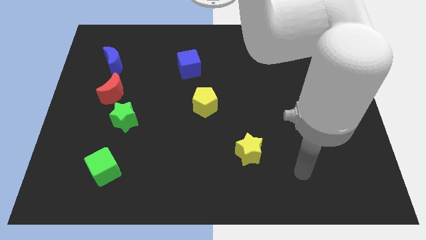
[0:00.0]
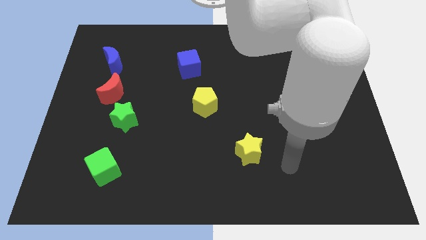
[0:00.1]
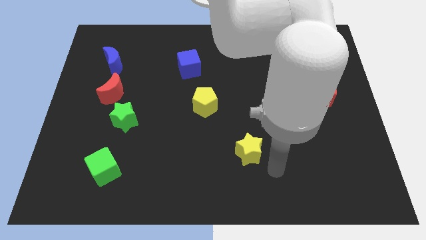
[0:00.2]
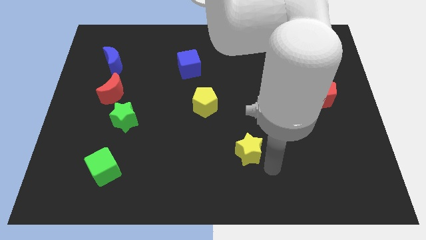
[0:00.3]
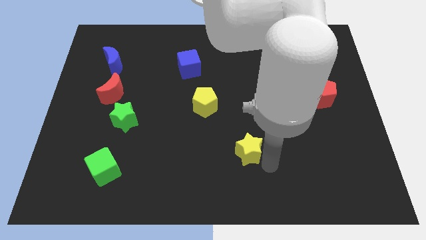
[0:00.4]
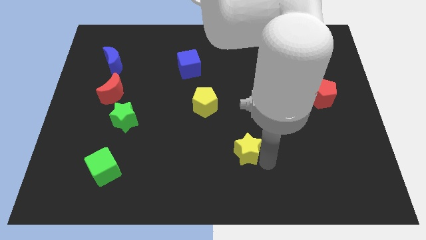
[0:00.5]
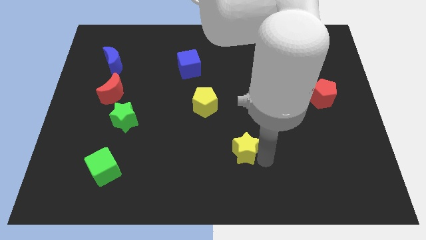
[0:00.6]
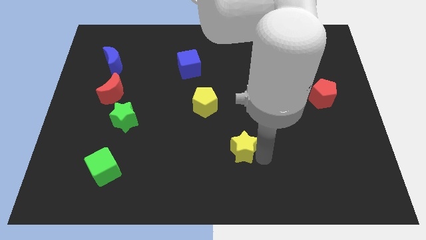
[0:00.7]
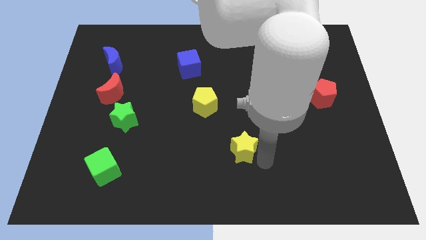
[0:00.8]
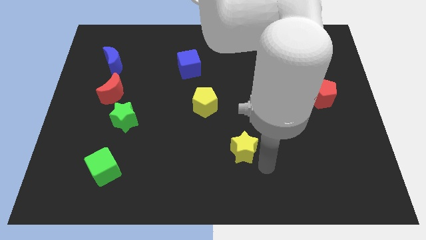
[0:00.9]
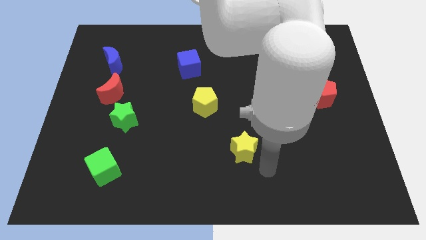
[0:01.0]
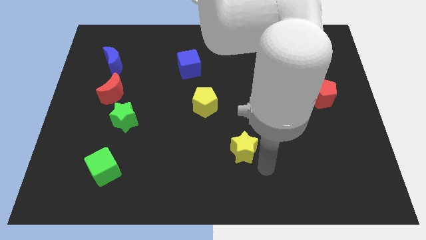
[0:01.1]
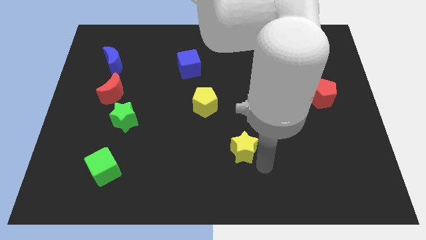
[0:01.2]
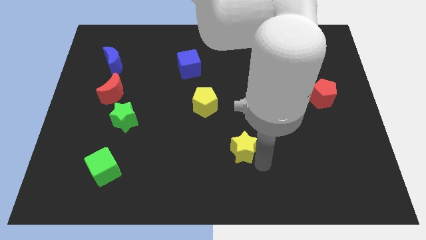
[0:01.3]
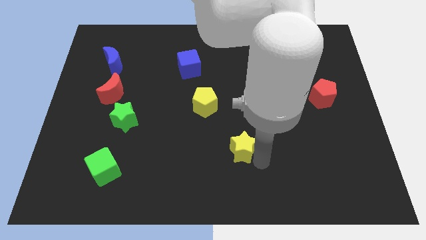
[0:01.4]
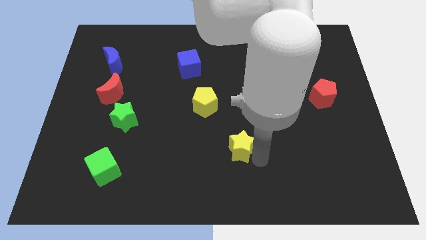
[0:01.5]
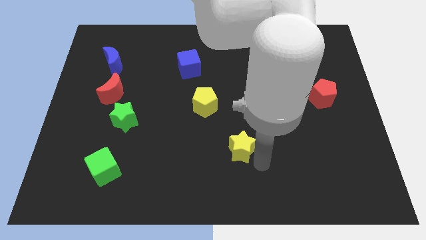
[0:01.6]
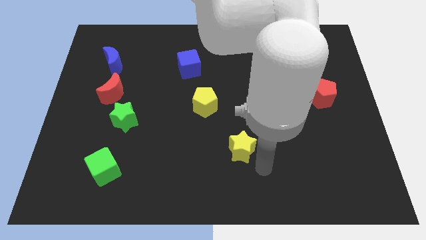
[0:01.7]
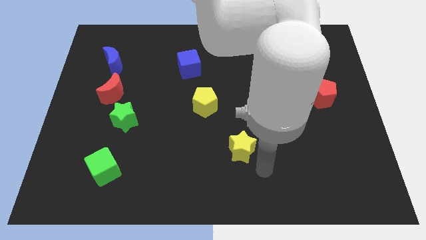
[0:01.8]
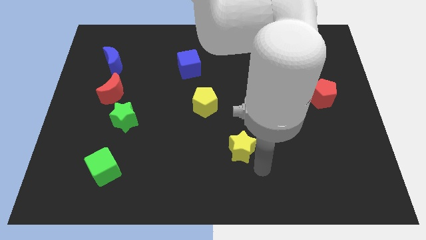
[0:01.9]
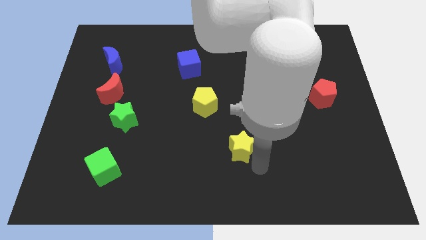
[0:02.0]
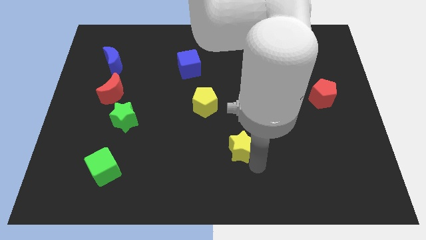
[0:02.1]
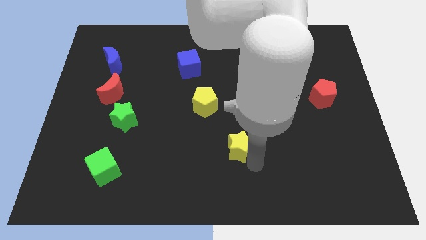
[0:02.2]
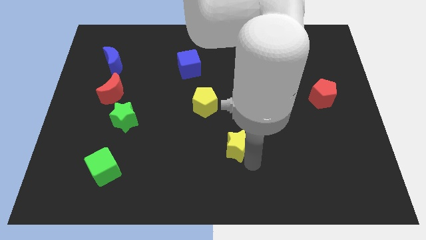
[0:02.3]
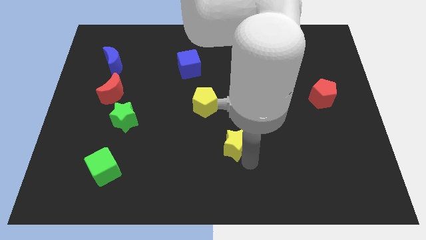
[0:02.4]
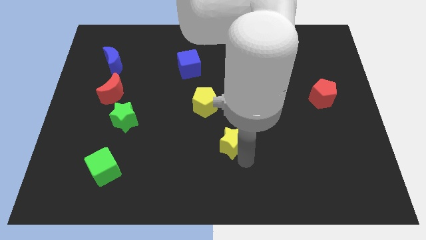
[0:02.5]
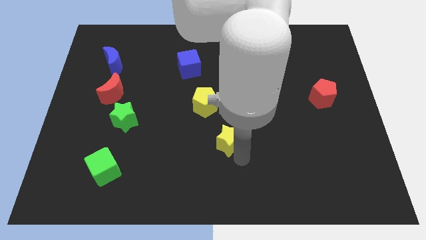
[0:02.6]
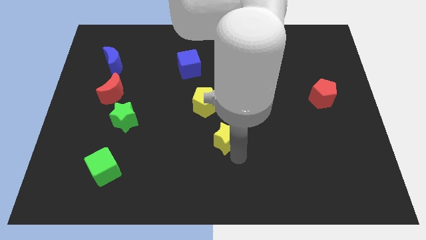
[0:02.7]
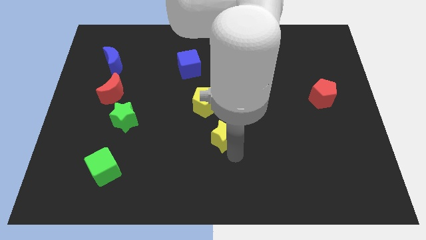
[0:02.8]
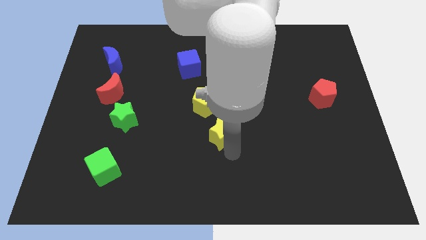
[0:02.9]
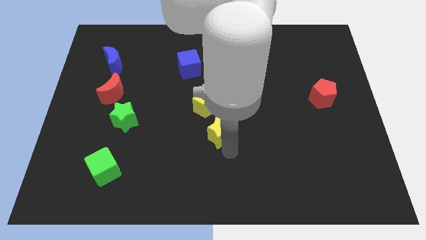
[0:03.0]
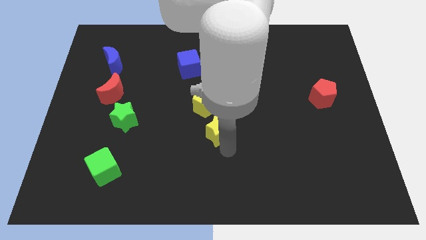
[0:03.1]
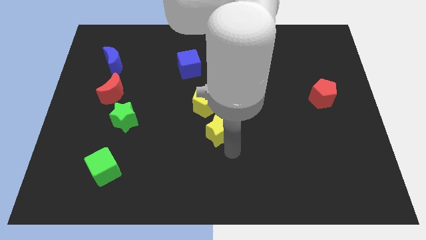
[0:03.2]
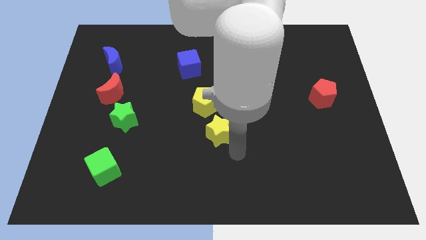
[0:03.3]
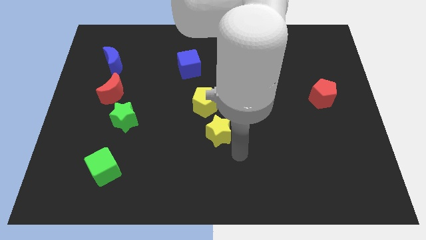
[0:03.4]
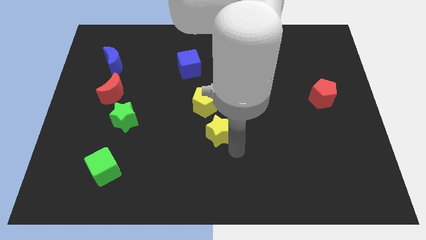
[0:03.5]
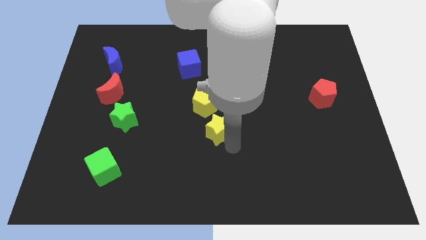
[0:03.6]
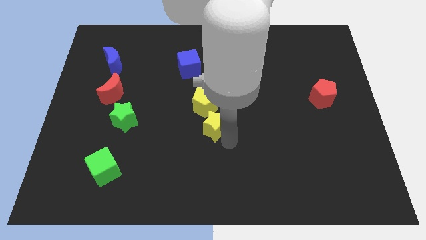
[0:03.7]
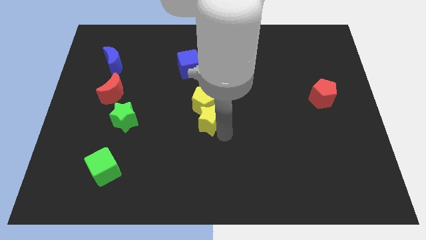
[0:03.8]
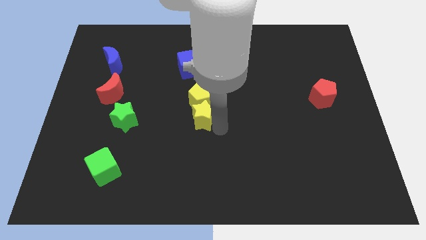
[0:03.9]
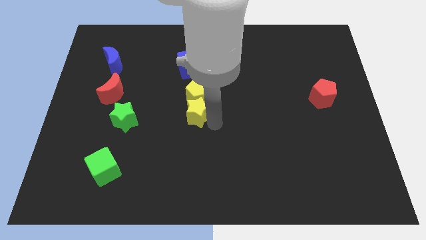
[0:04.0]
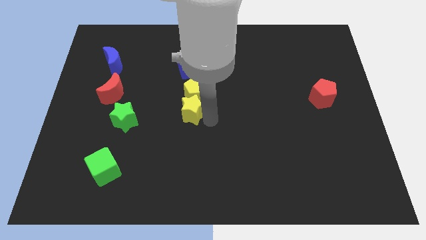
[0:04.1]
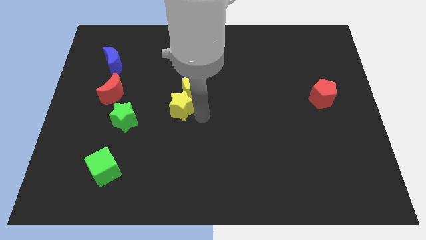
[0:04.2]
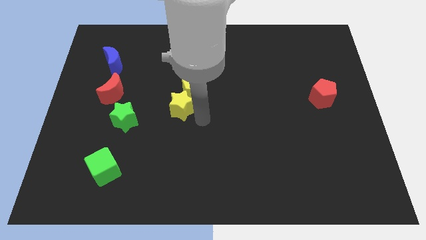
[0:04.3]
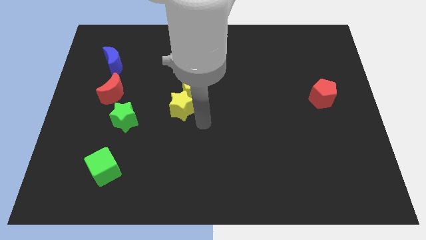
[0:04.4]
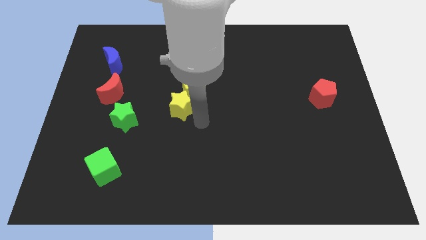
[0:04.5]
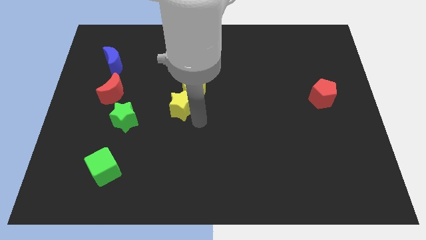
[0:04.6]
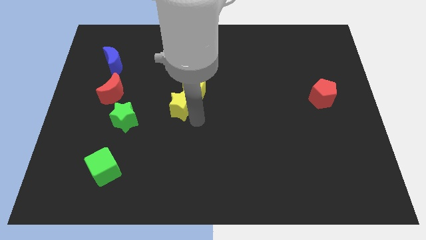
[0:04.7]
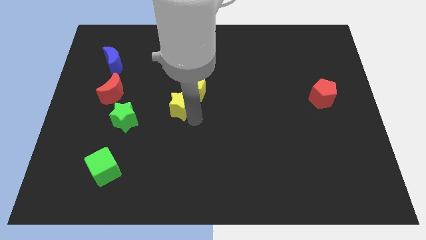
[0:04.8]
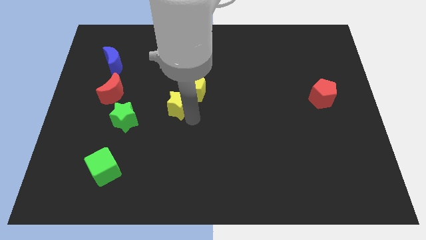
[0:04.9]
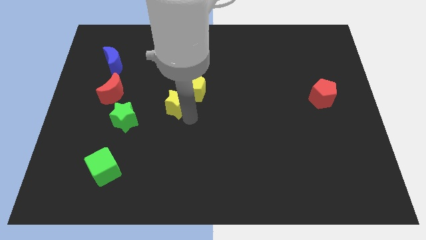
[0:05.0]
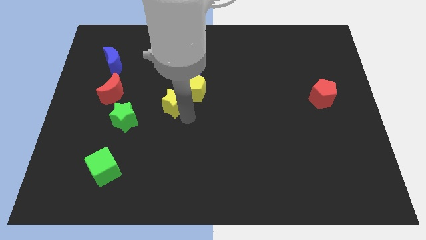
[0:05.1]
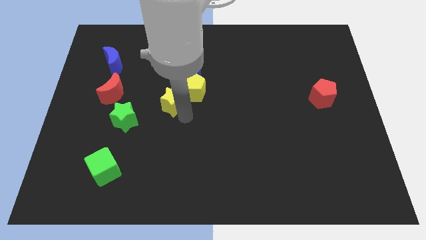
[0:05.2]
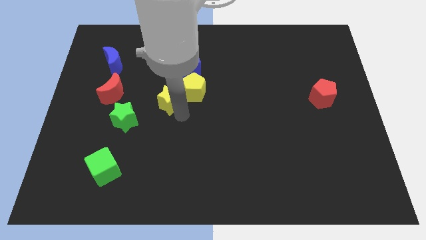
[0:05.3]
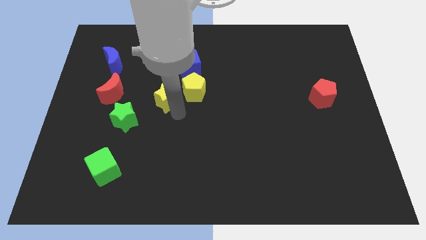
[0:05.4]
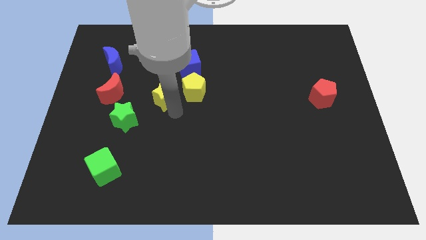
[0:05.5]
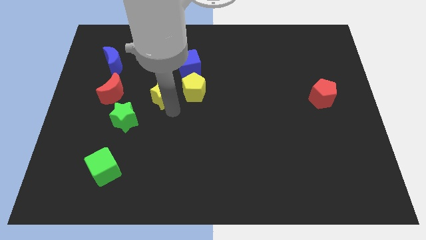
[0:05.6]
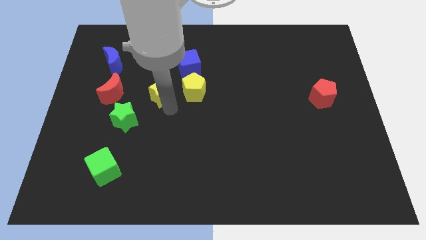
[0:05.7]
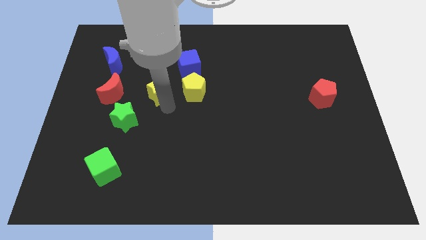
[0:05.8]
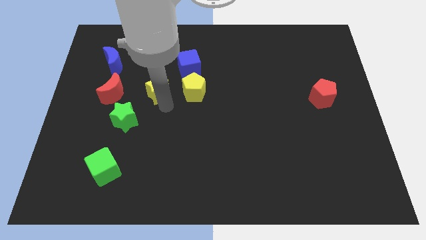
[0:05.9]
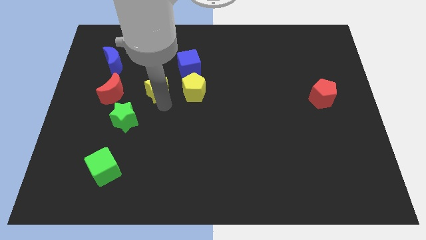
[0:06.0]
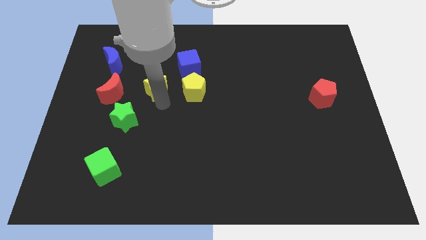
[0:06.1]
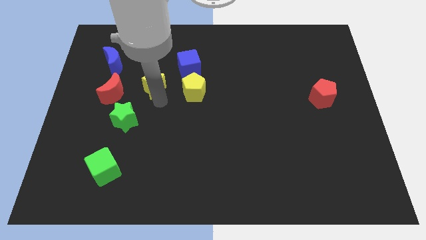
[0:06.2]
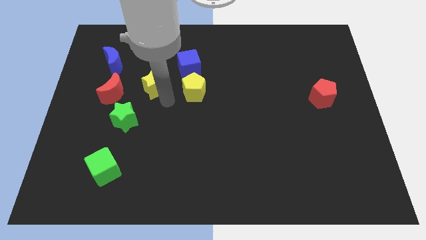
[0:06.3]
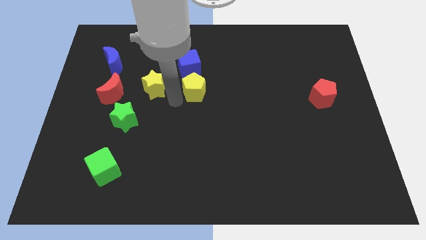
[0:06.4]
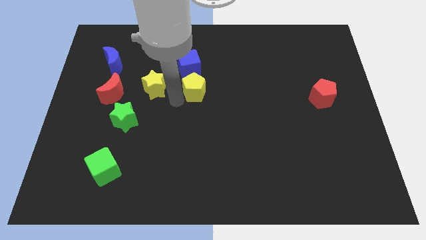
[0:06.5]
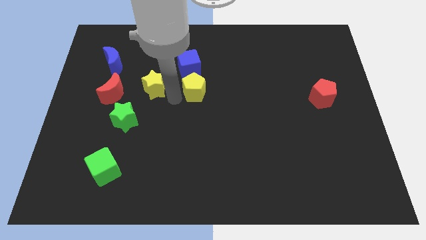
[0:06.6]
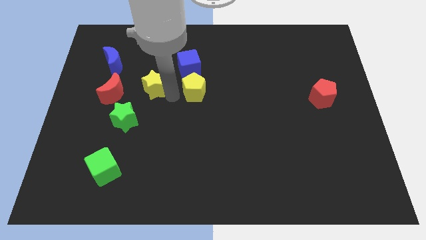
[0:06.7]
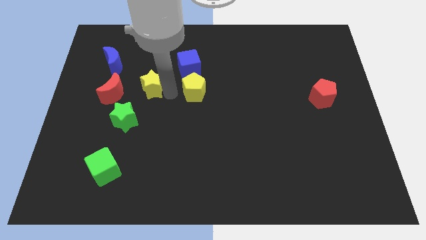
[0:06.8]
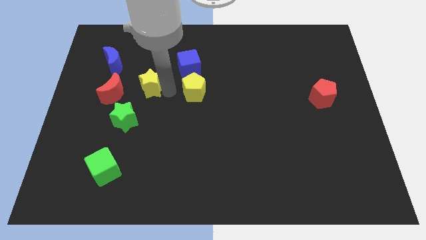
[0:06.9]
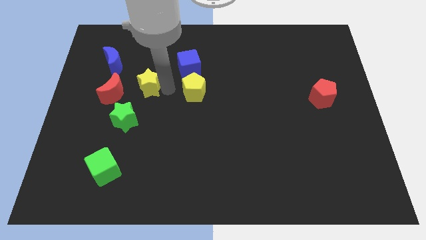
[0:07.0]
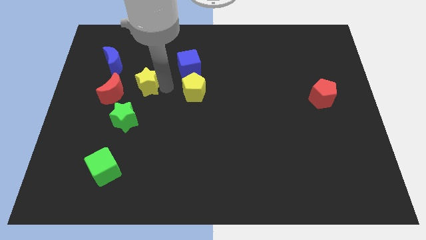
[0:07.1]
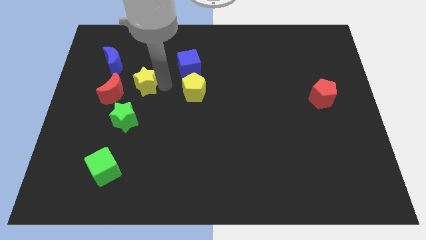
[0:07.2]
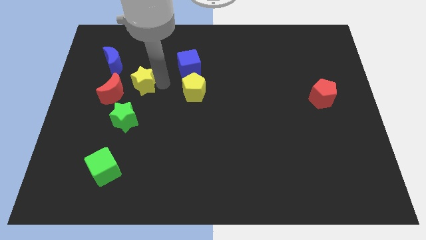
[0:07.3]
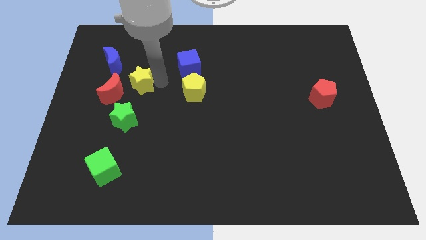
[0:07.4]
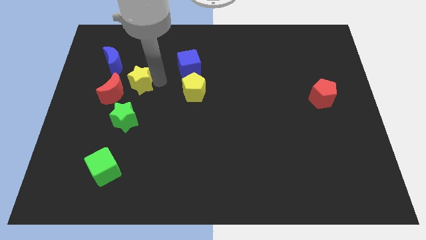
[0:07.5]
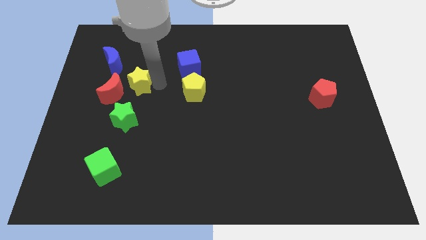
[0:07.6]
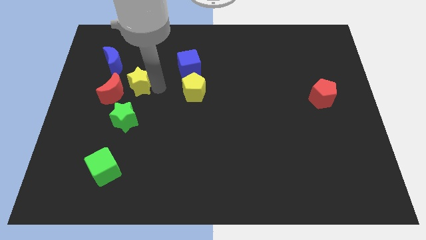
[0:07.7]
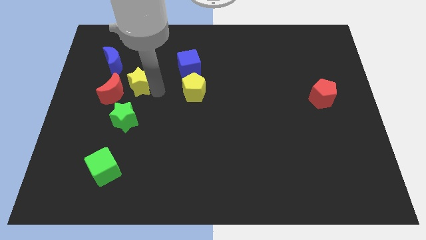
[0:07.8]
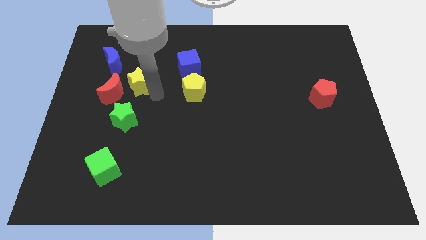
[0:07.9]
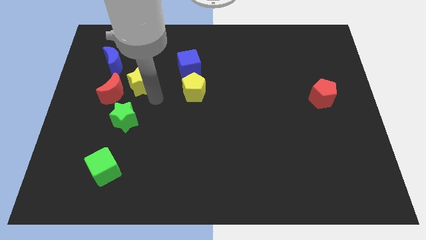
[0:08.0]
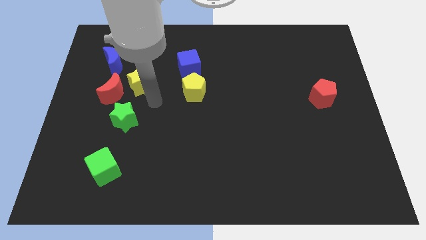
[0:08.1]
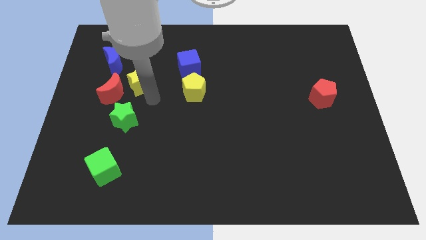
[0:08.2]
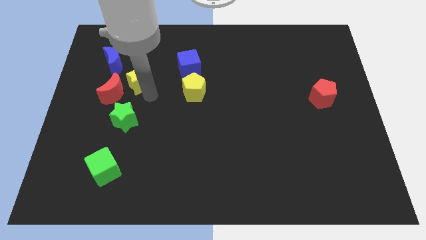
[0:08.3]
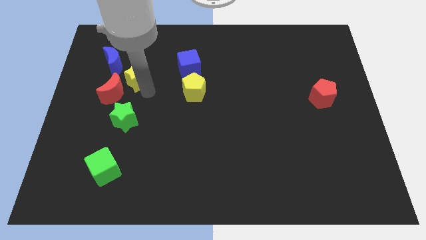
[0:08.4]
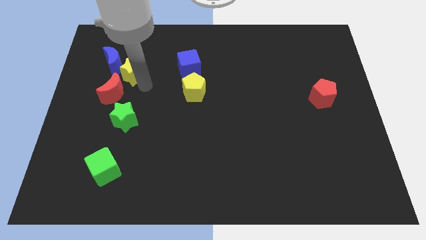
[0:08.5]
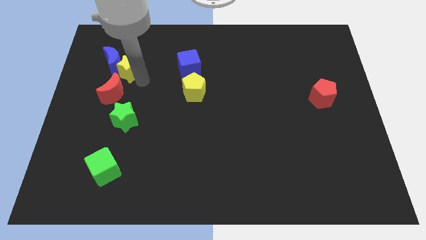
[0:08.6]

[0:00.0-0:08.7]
push the yellow star close to the blue moon
